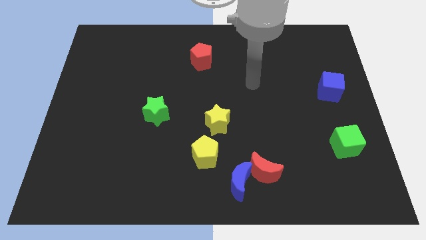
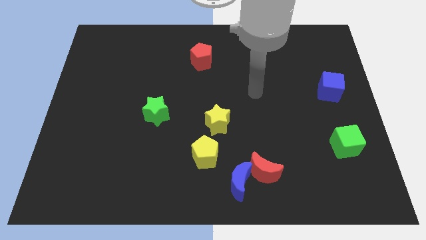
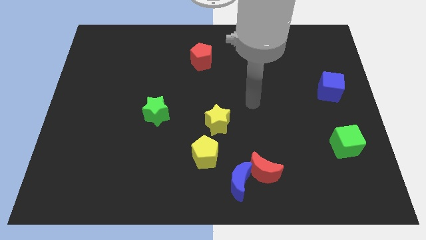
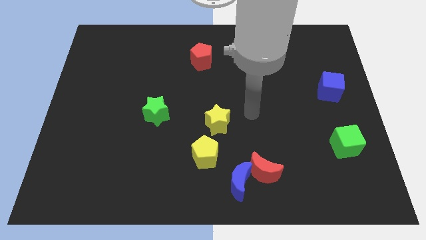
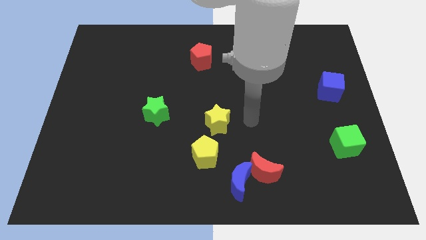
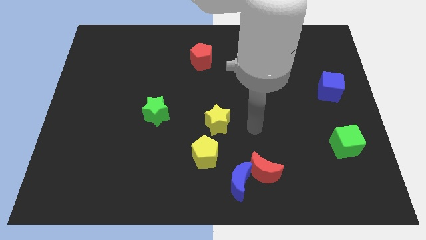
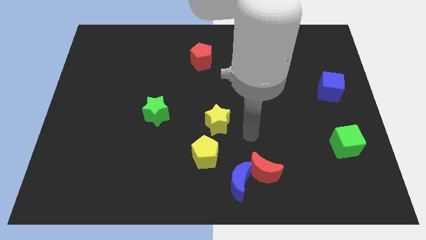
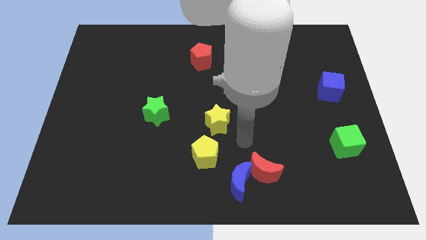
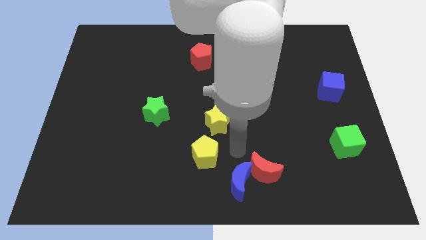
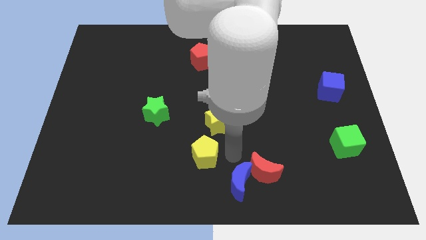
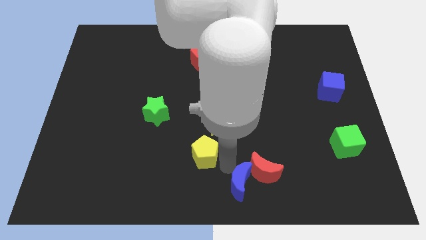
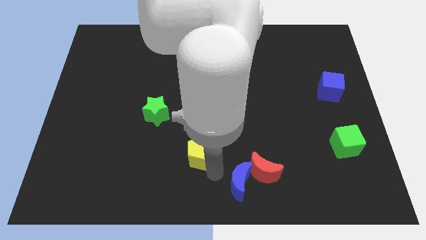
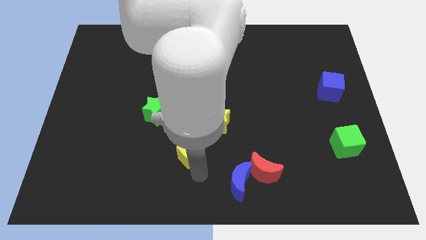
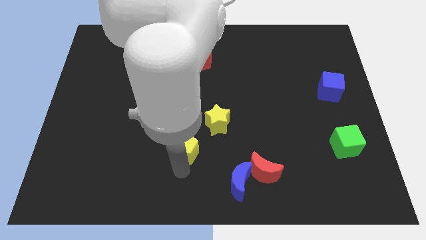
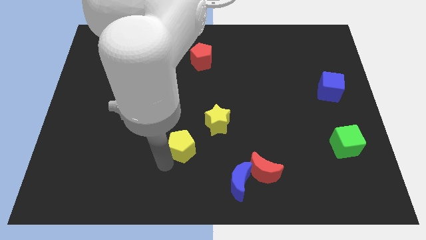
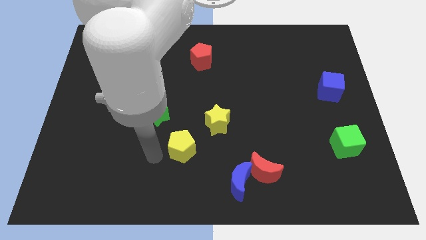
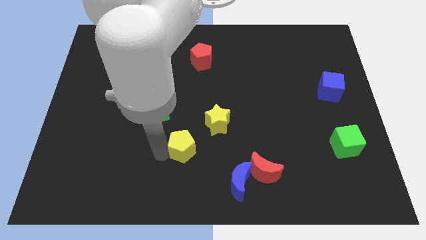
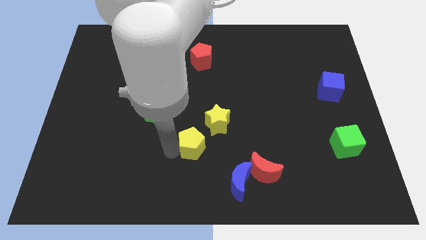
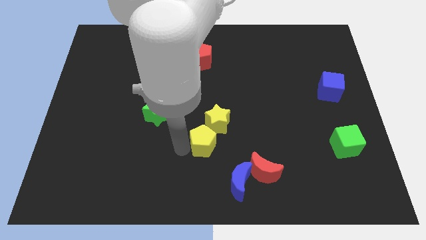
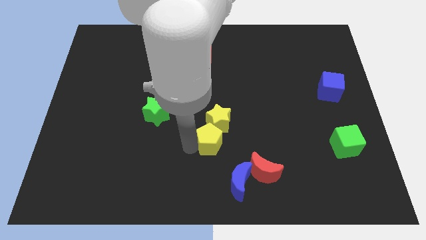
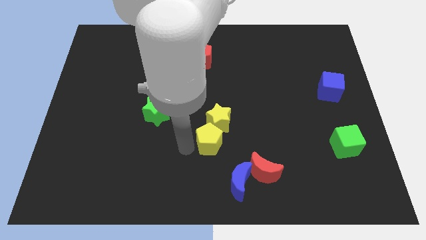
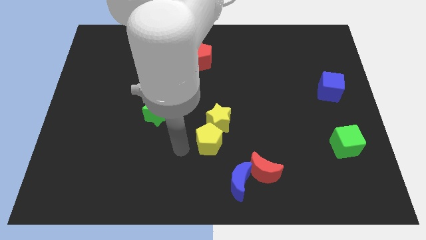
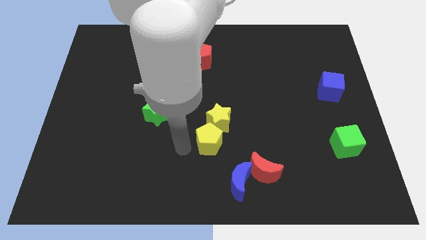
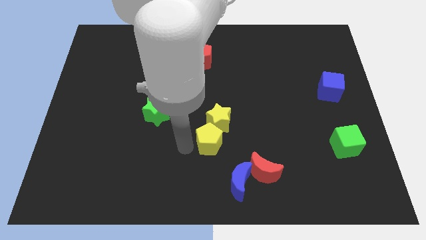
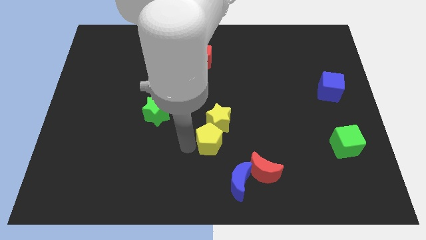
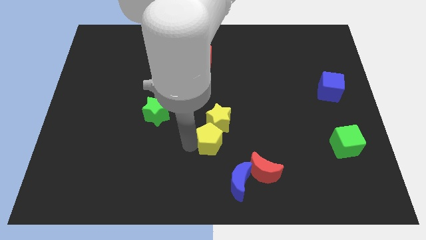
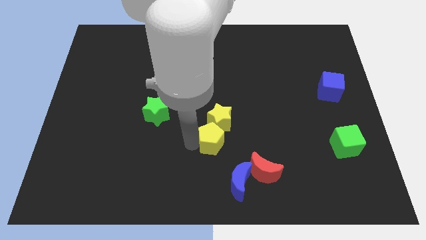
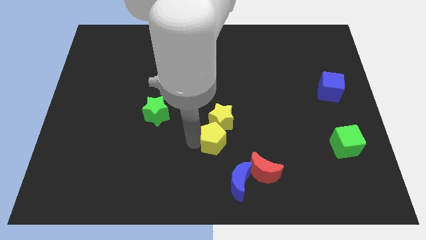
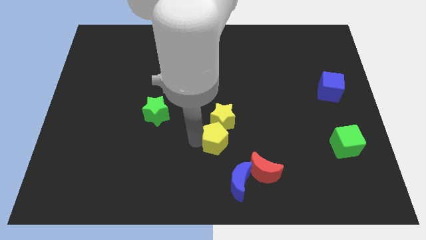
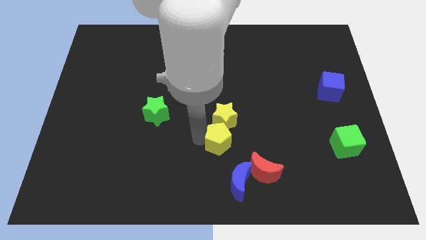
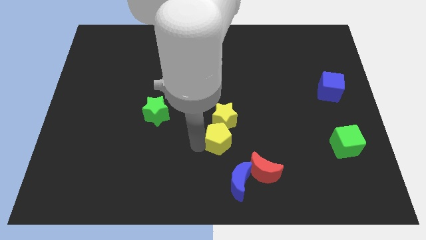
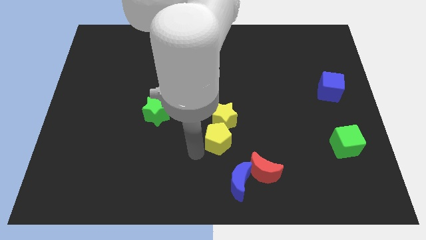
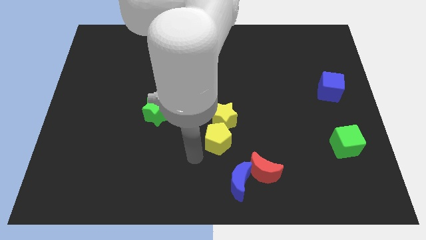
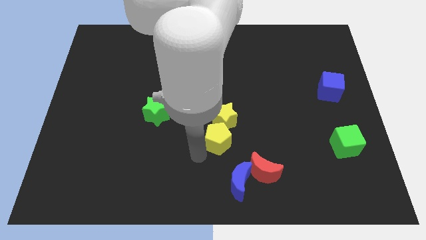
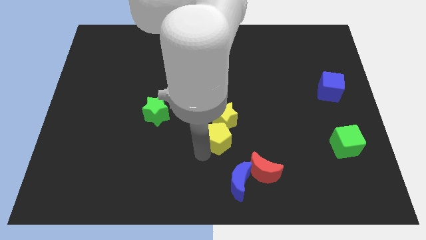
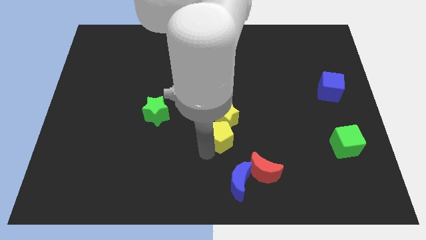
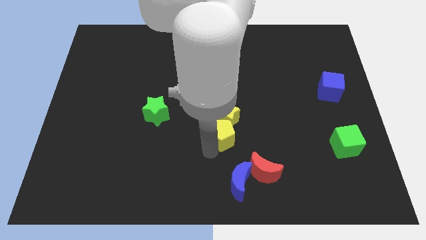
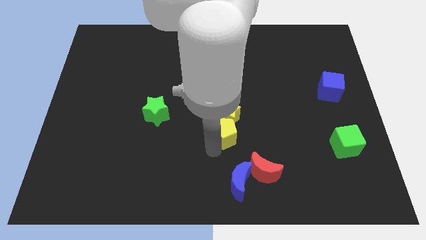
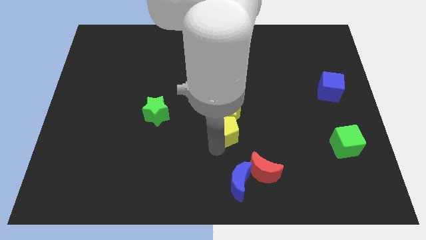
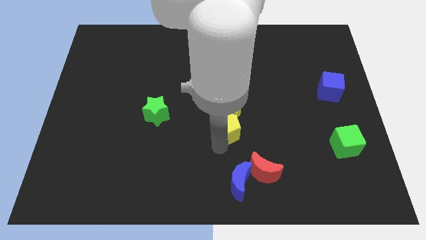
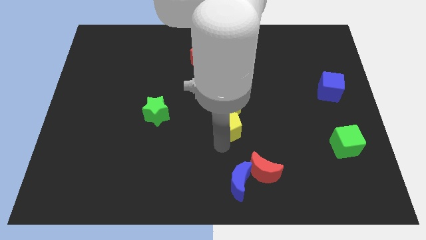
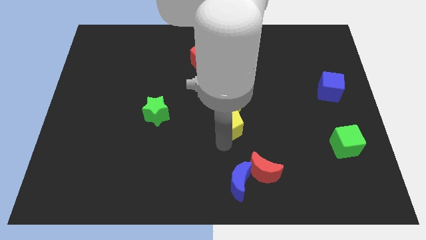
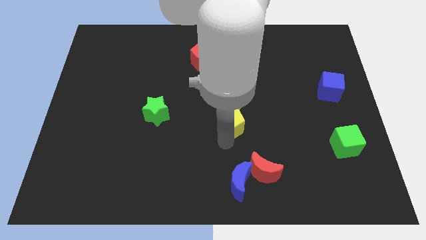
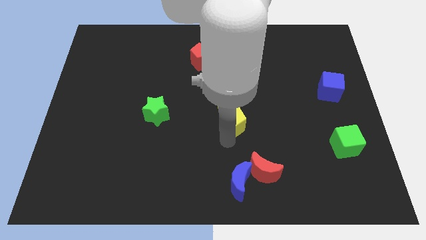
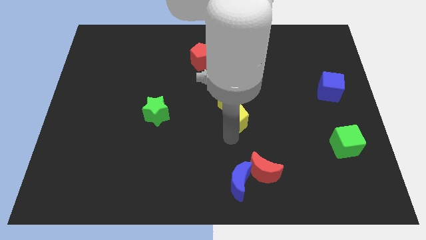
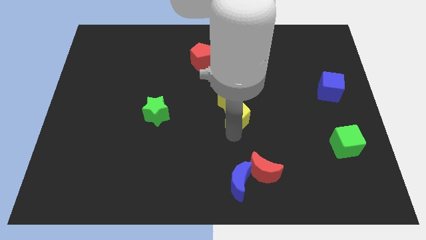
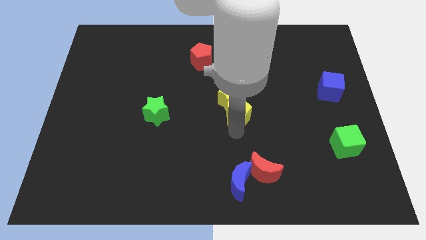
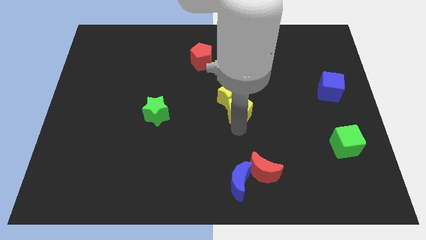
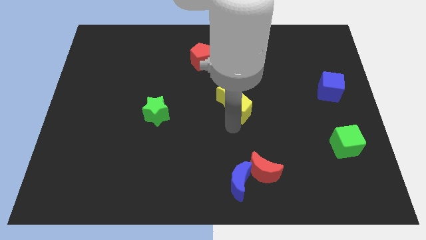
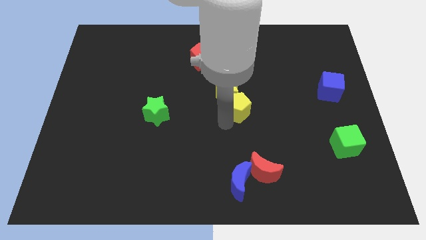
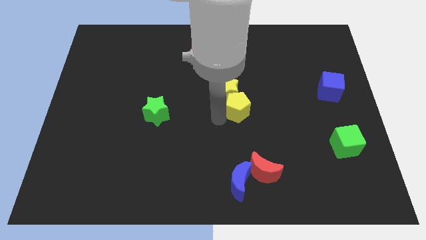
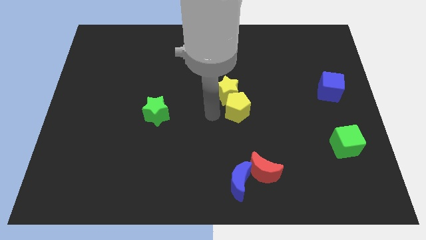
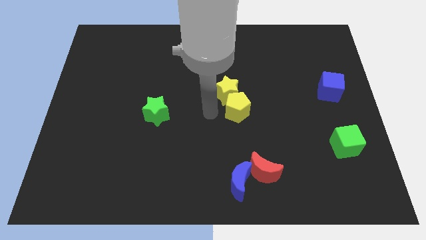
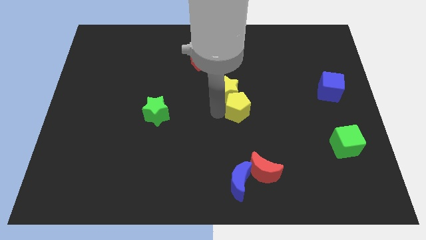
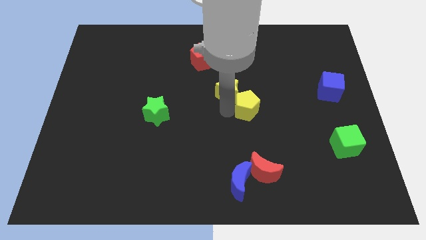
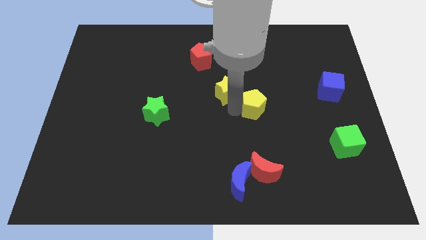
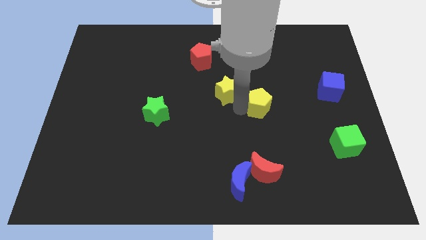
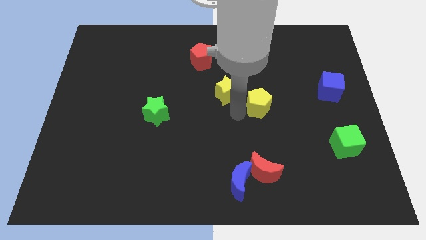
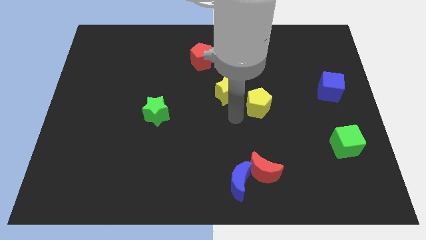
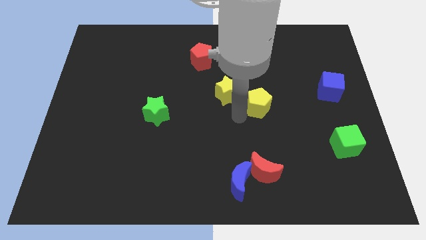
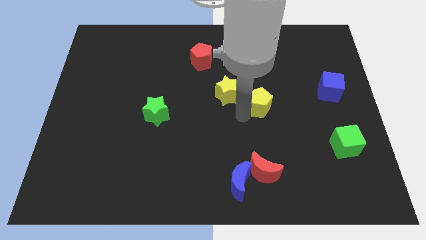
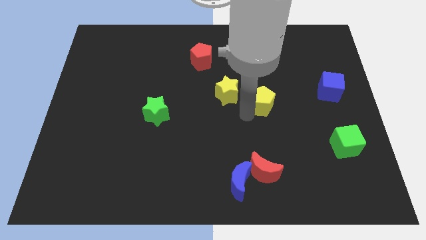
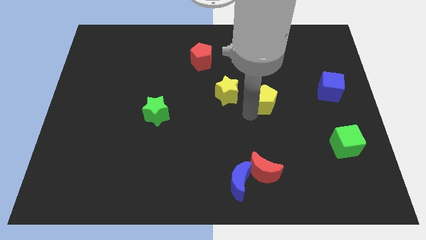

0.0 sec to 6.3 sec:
move the yellow pentagon upwards and then to the right

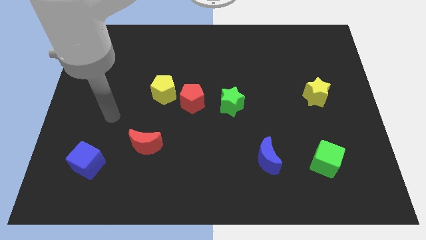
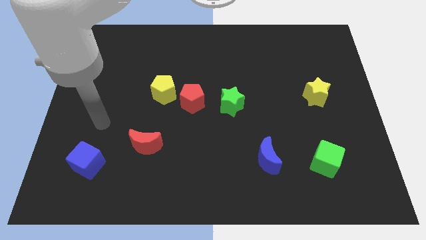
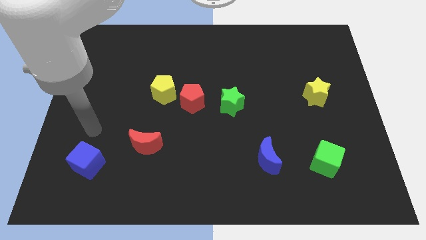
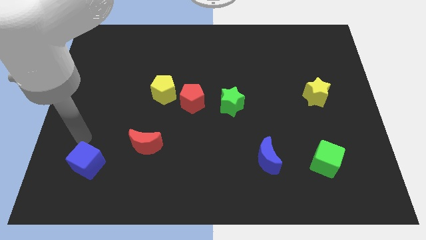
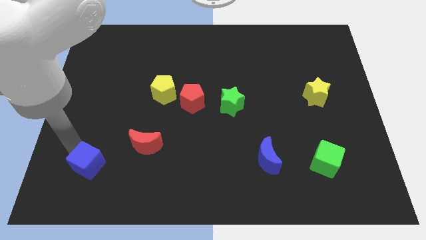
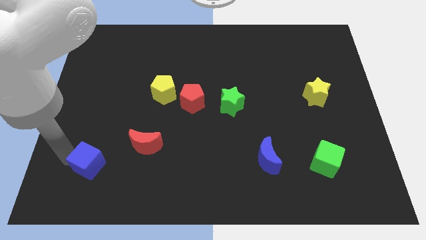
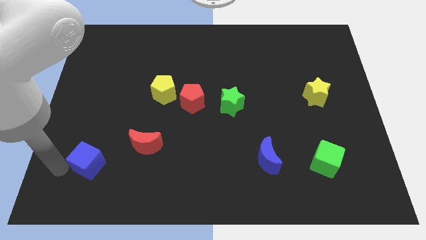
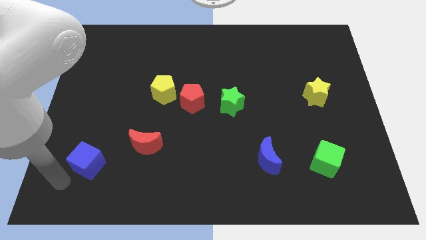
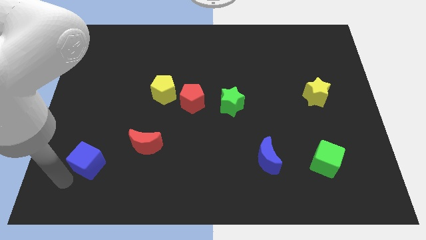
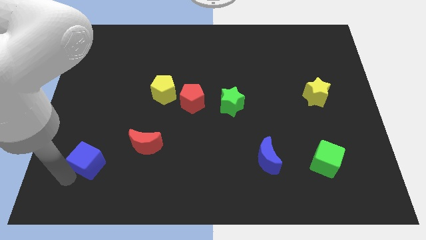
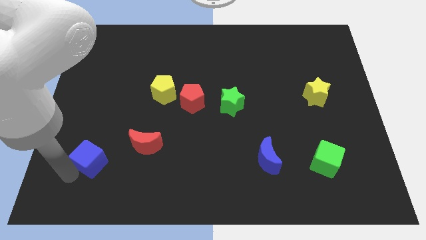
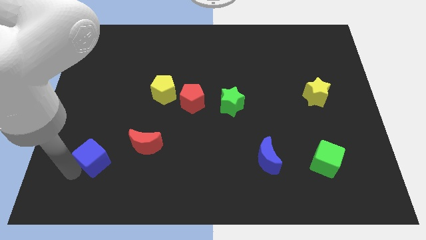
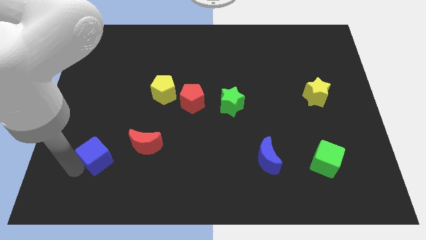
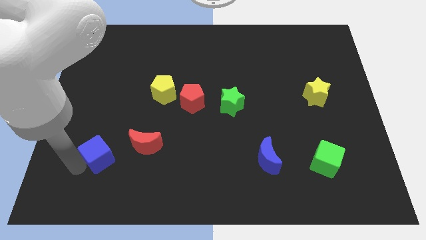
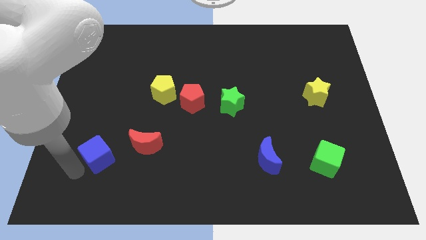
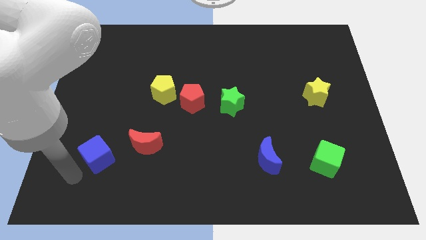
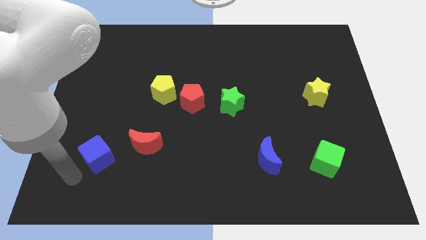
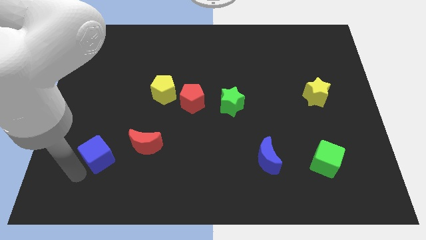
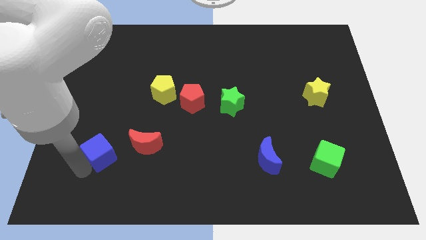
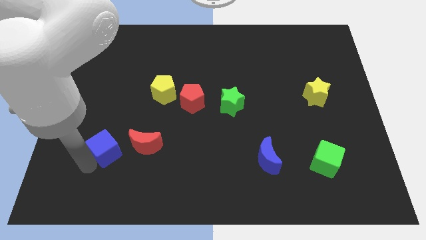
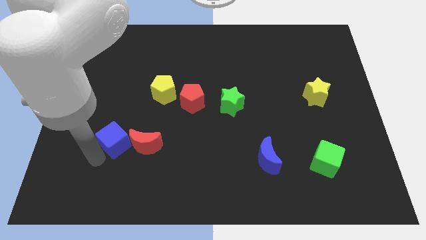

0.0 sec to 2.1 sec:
push the blue cube up and to the right a bit
